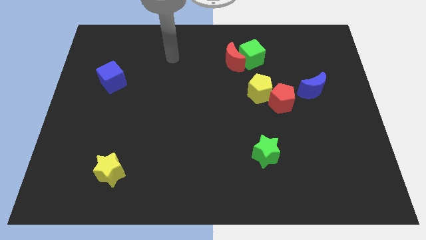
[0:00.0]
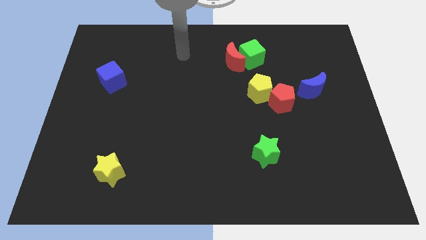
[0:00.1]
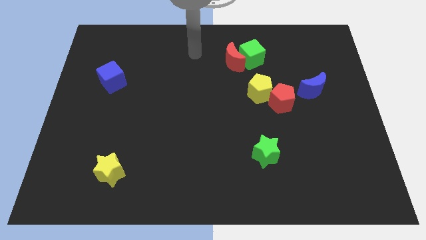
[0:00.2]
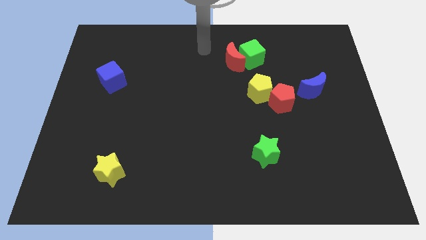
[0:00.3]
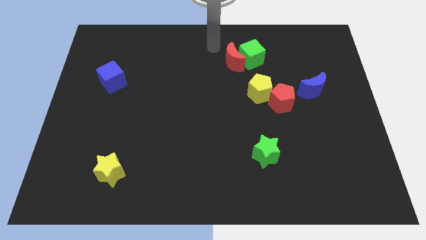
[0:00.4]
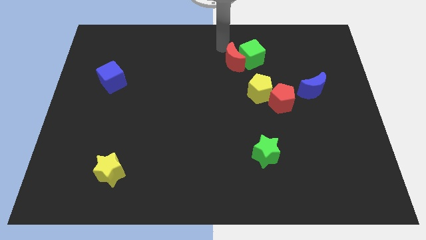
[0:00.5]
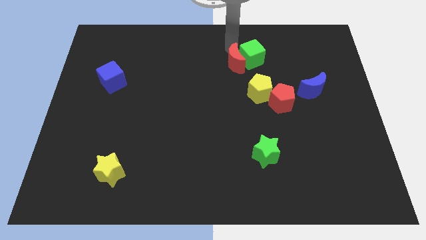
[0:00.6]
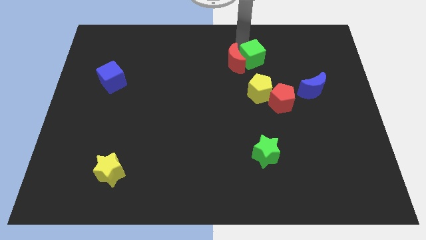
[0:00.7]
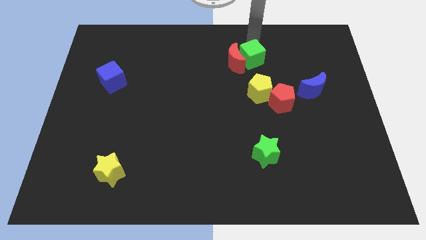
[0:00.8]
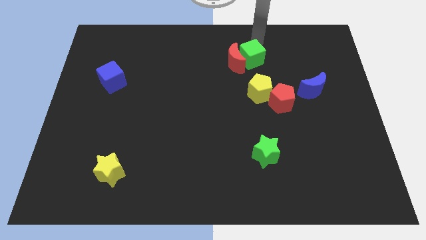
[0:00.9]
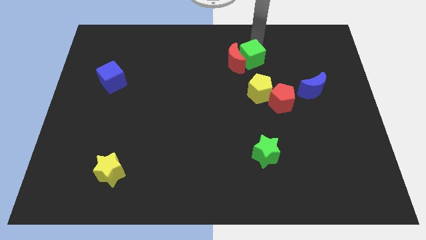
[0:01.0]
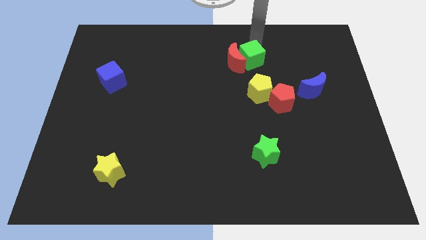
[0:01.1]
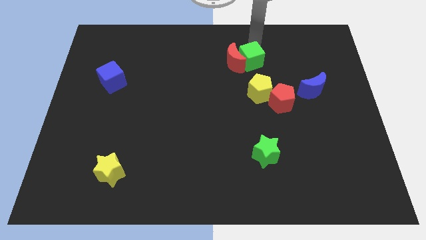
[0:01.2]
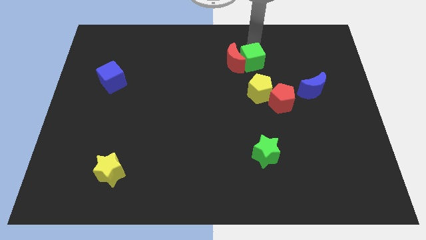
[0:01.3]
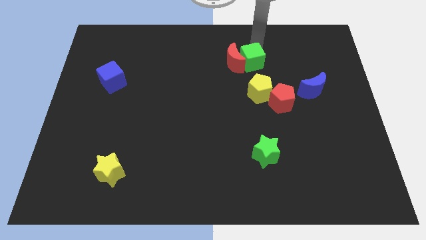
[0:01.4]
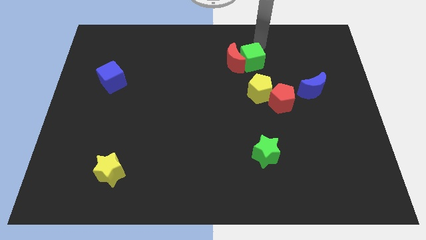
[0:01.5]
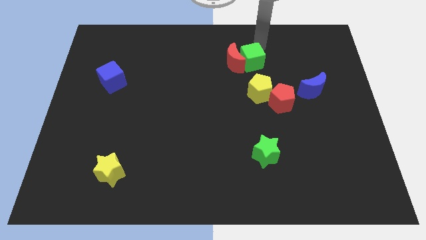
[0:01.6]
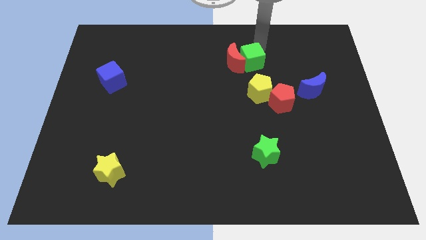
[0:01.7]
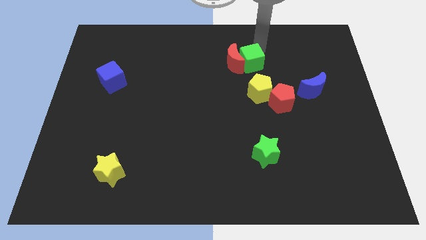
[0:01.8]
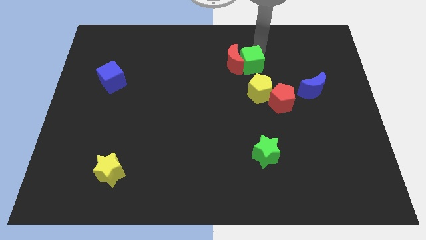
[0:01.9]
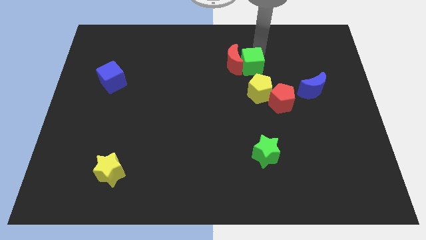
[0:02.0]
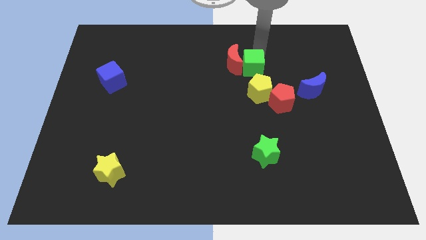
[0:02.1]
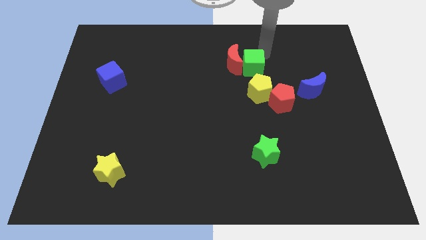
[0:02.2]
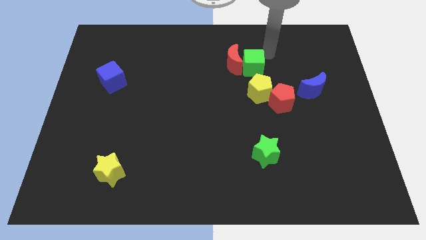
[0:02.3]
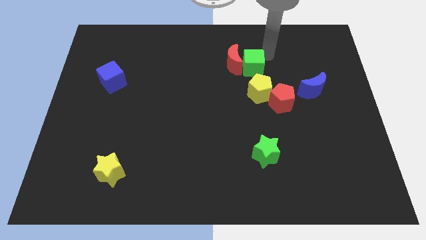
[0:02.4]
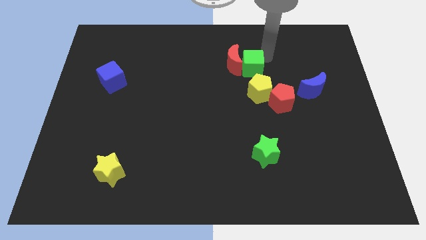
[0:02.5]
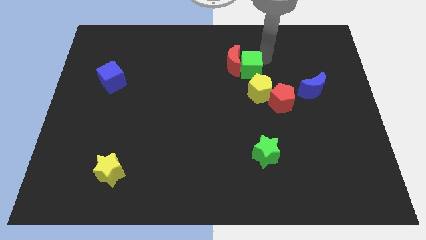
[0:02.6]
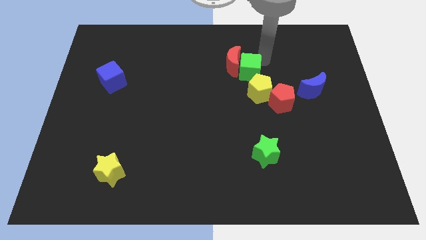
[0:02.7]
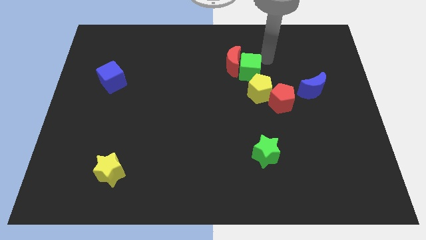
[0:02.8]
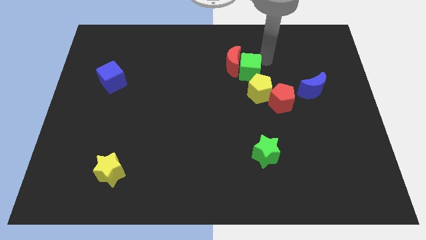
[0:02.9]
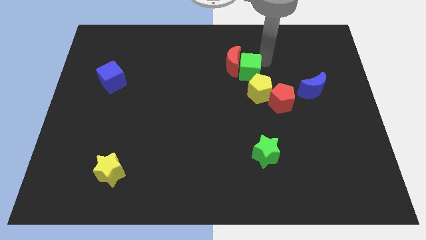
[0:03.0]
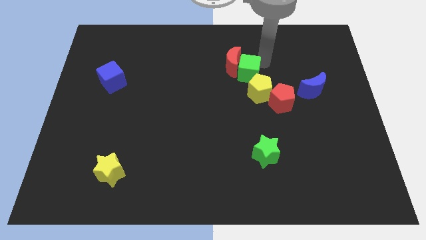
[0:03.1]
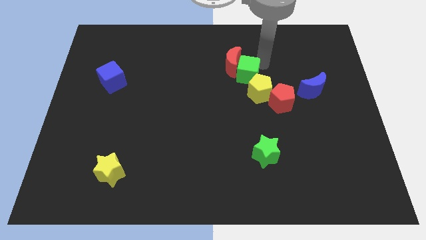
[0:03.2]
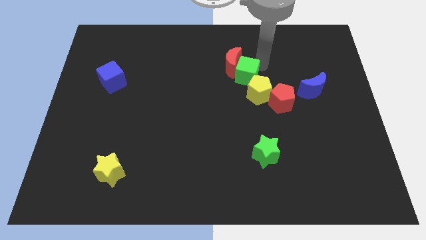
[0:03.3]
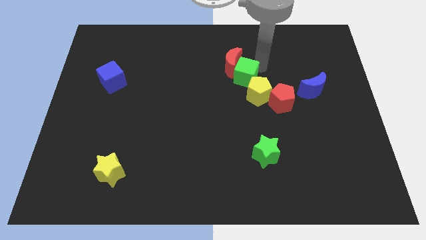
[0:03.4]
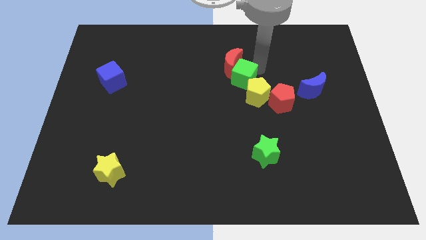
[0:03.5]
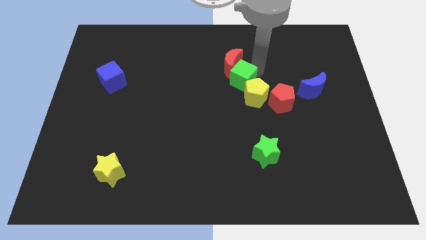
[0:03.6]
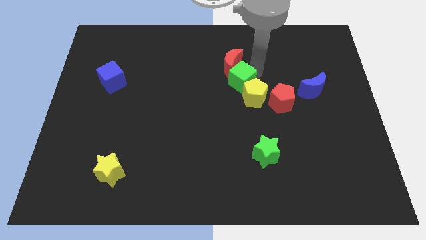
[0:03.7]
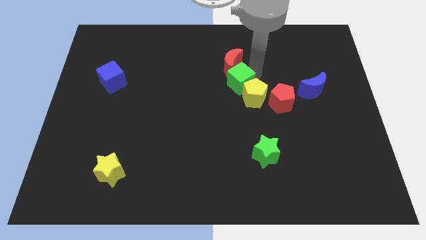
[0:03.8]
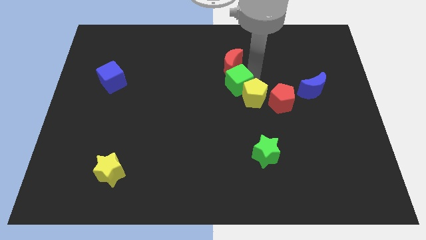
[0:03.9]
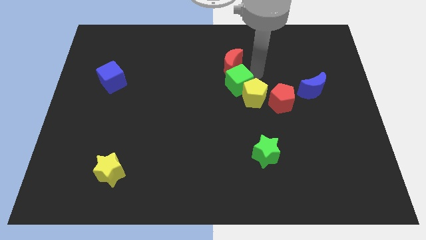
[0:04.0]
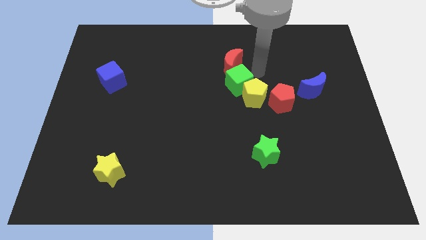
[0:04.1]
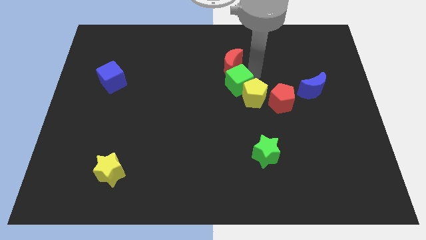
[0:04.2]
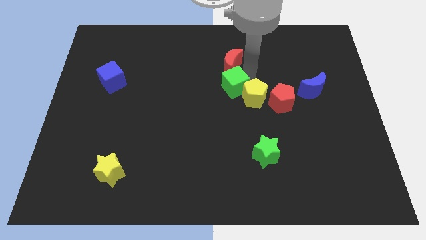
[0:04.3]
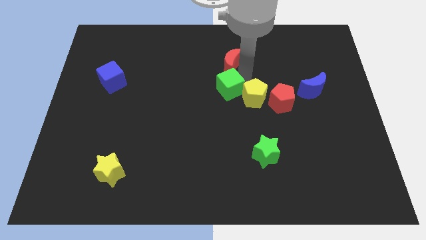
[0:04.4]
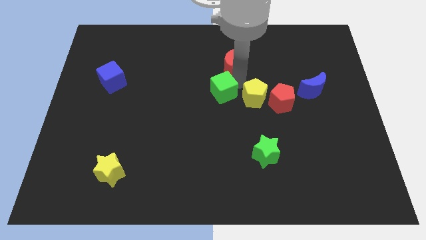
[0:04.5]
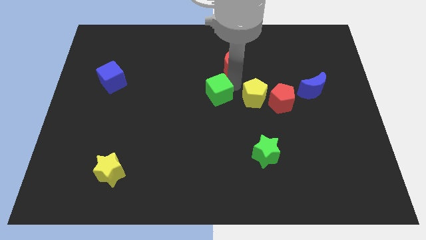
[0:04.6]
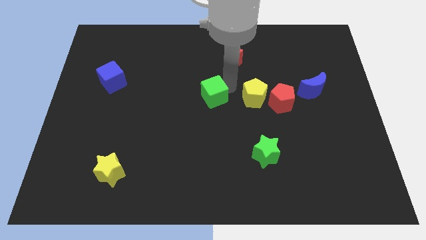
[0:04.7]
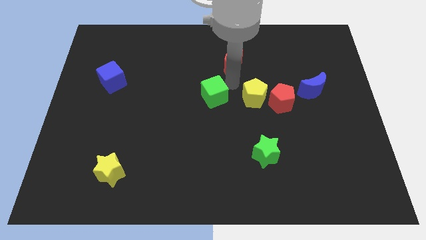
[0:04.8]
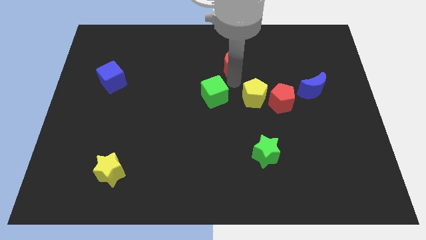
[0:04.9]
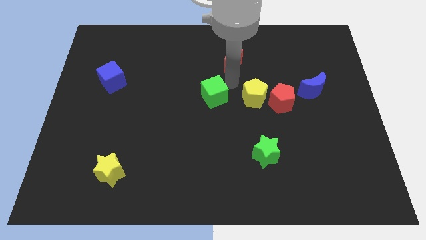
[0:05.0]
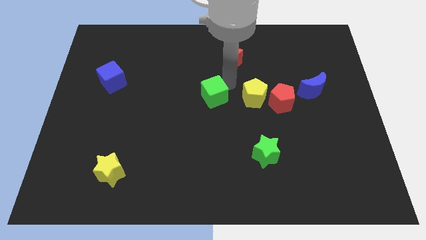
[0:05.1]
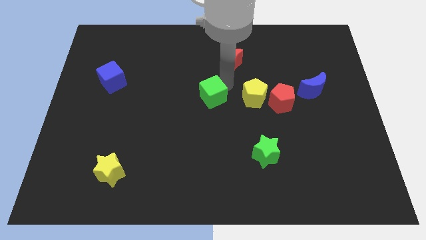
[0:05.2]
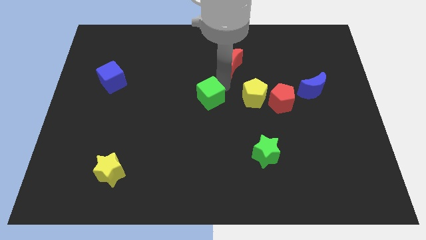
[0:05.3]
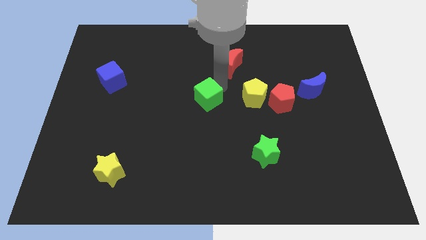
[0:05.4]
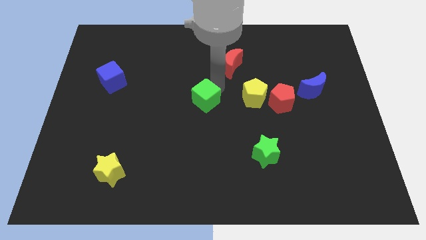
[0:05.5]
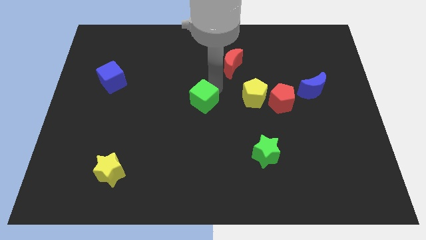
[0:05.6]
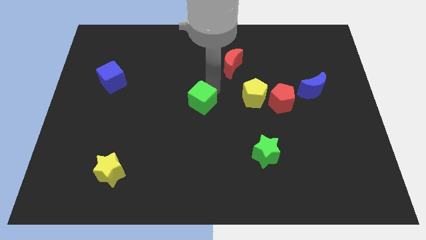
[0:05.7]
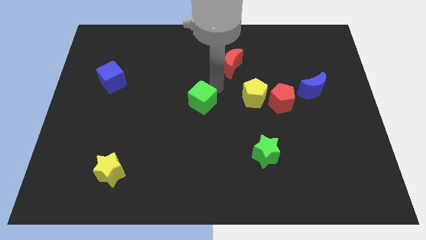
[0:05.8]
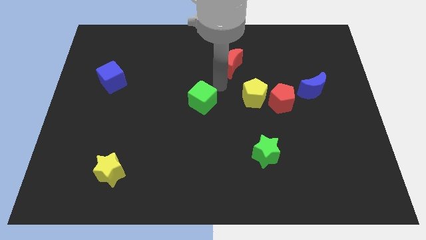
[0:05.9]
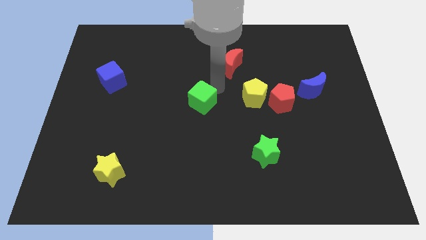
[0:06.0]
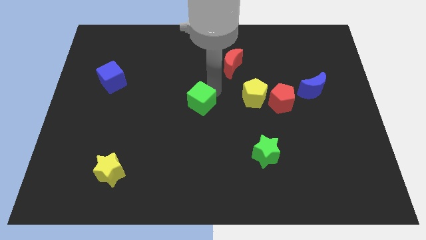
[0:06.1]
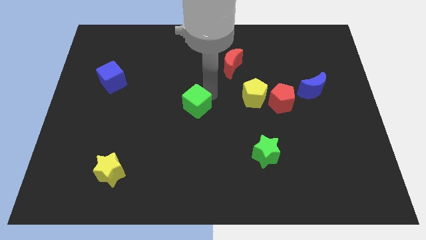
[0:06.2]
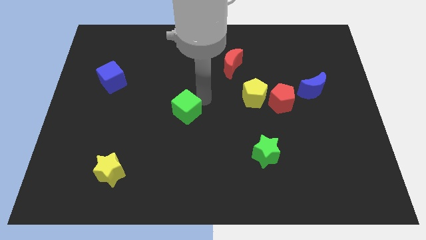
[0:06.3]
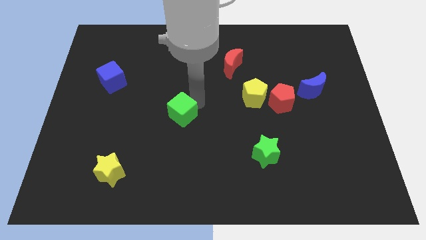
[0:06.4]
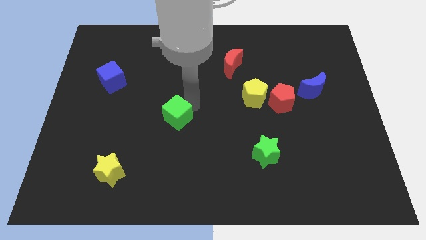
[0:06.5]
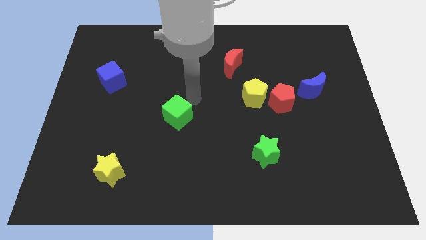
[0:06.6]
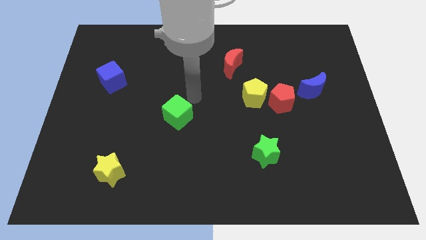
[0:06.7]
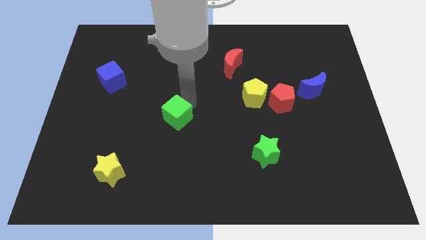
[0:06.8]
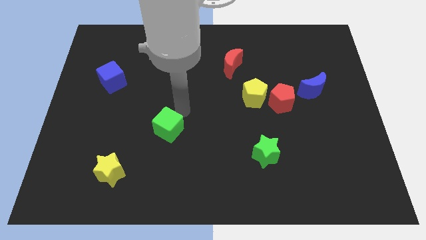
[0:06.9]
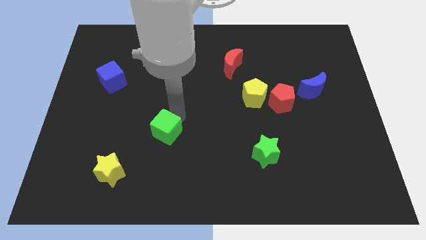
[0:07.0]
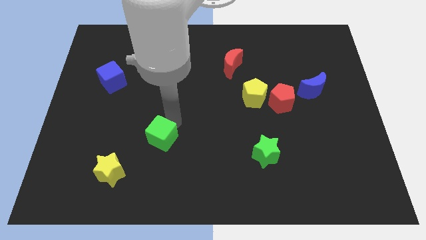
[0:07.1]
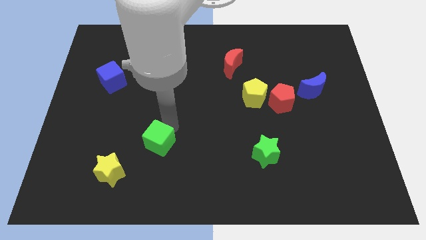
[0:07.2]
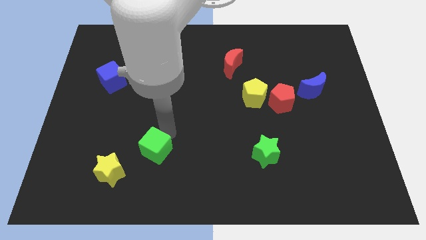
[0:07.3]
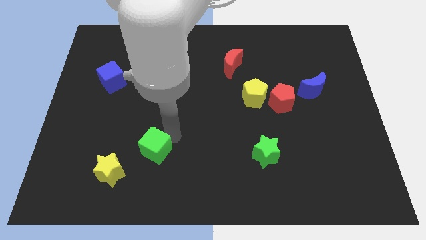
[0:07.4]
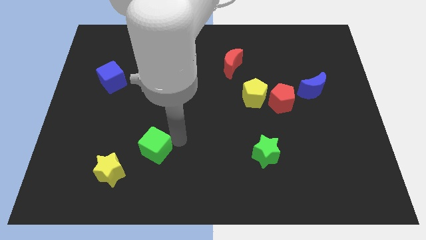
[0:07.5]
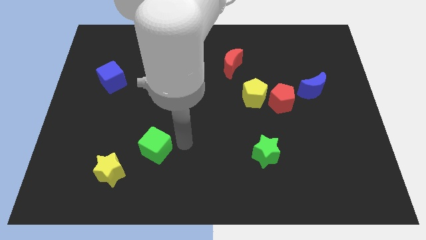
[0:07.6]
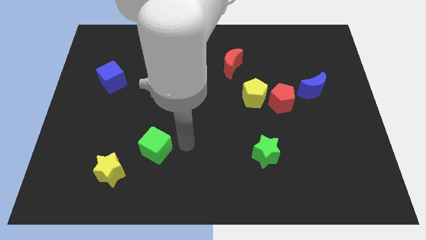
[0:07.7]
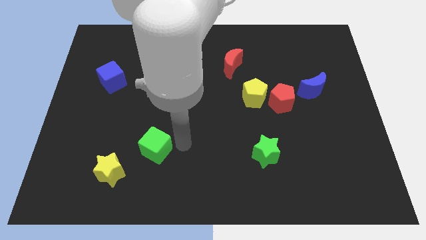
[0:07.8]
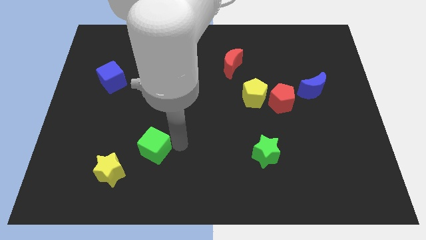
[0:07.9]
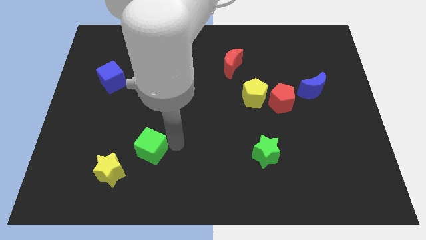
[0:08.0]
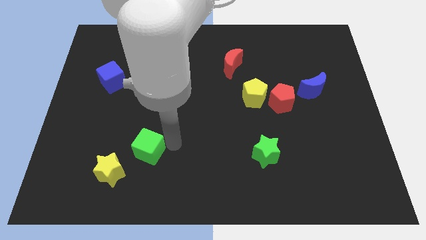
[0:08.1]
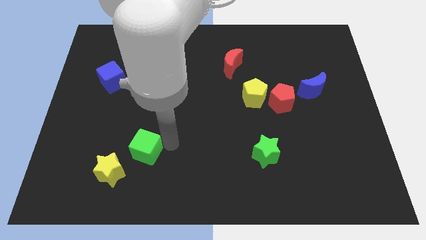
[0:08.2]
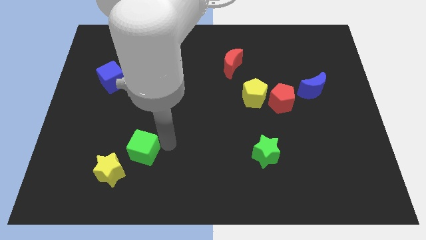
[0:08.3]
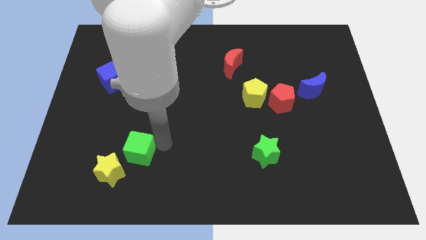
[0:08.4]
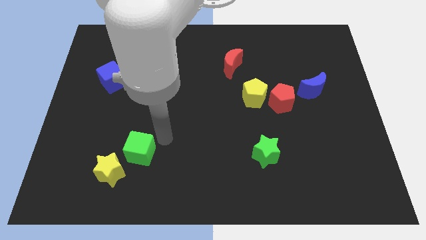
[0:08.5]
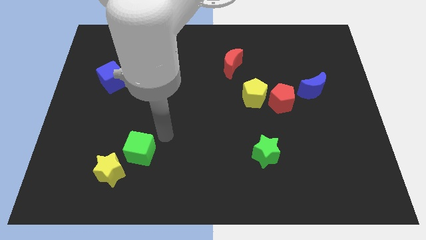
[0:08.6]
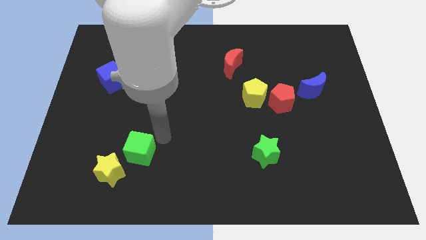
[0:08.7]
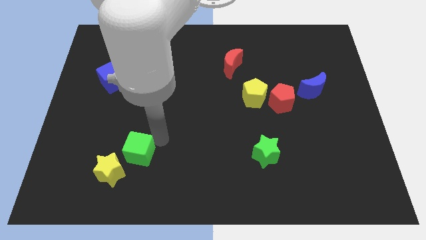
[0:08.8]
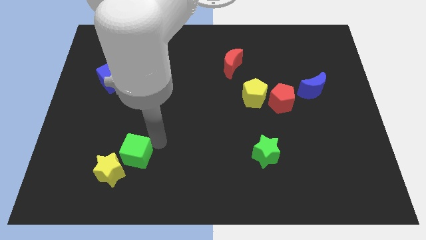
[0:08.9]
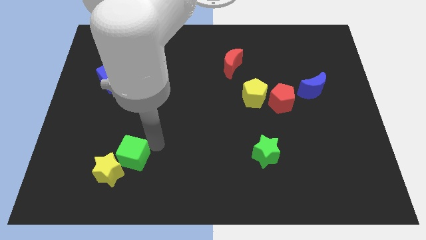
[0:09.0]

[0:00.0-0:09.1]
slide the green cube towards the yellow star
